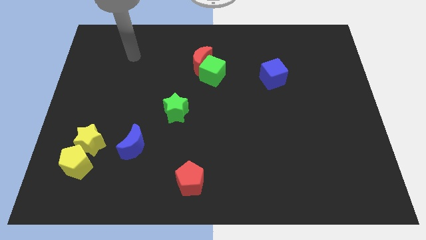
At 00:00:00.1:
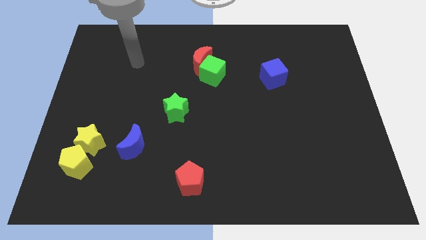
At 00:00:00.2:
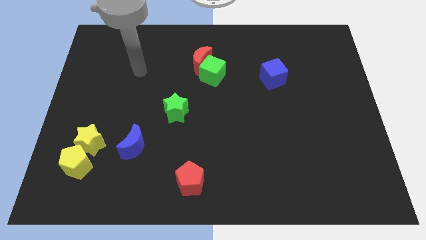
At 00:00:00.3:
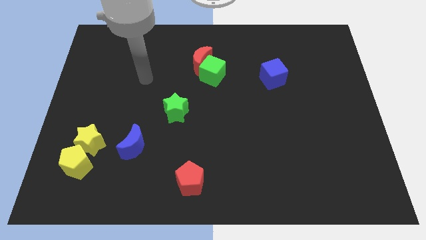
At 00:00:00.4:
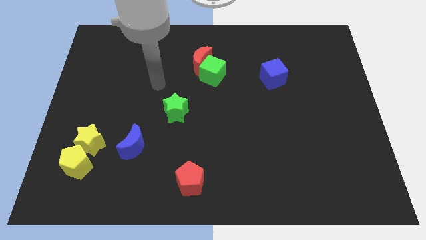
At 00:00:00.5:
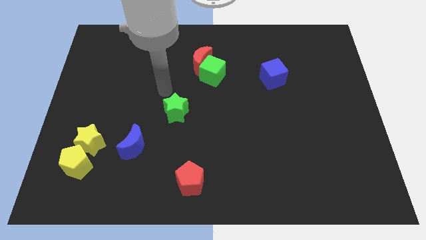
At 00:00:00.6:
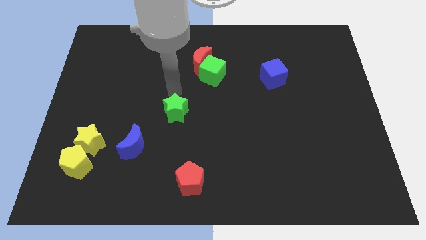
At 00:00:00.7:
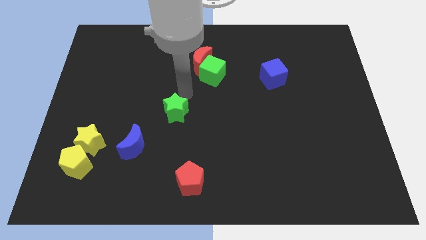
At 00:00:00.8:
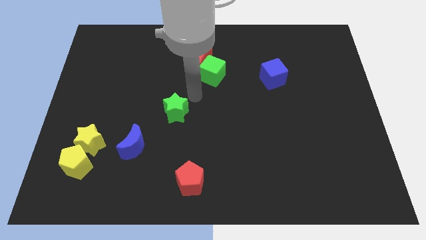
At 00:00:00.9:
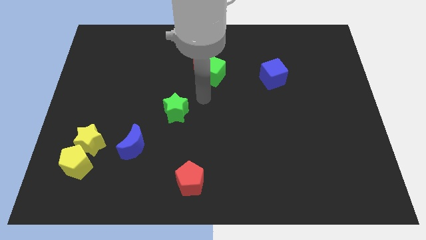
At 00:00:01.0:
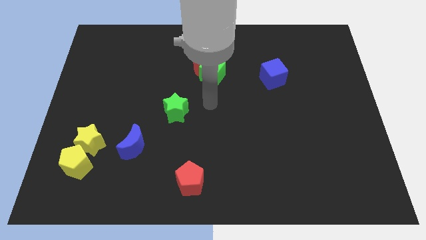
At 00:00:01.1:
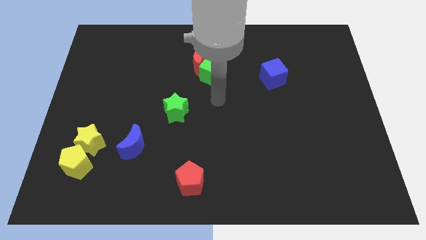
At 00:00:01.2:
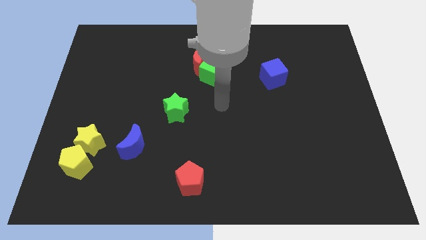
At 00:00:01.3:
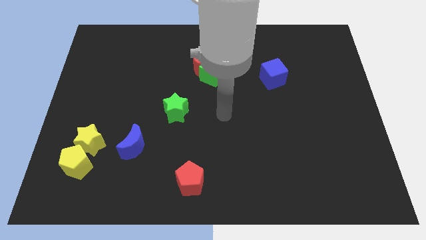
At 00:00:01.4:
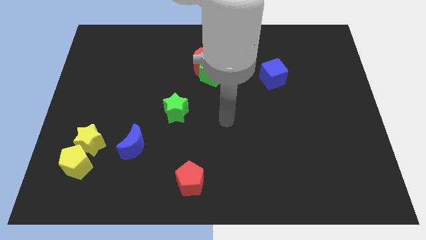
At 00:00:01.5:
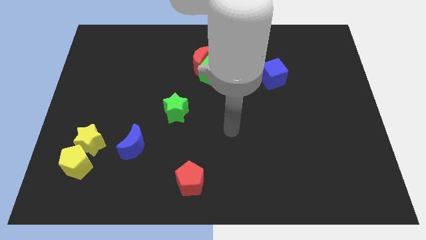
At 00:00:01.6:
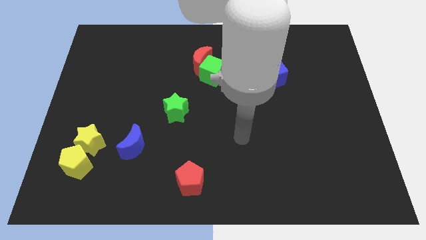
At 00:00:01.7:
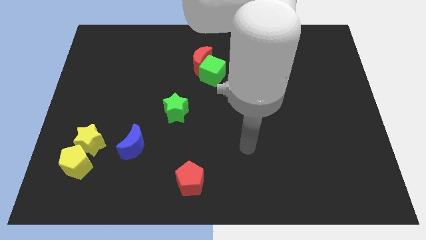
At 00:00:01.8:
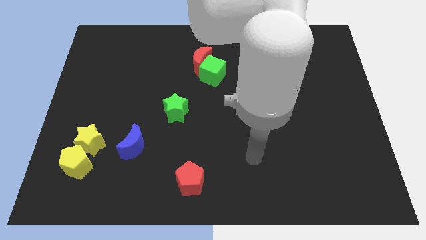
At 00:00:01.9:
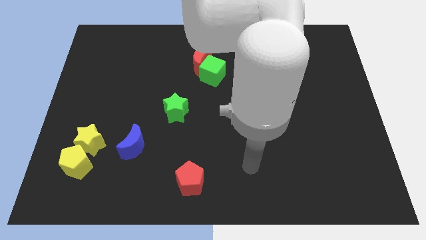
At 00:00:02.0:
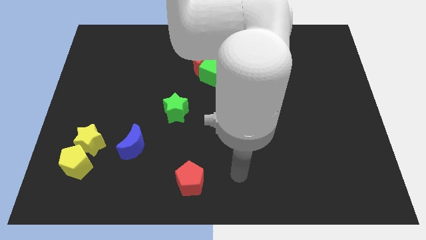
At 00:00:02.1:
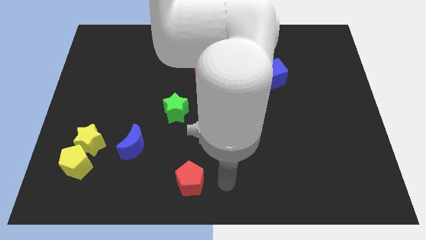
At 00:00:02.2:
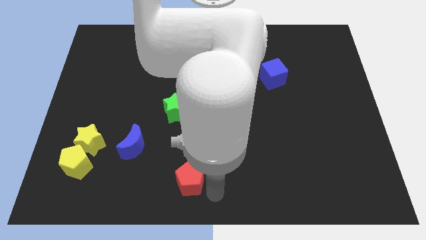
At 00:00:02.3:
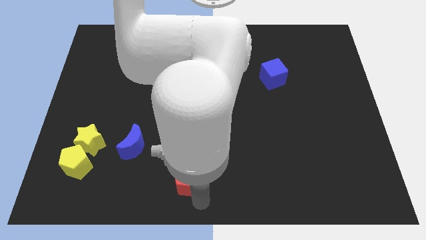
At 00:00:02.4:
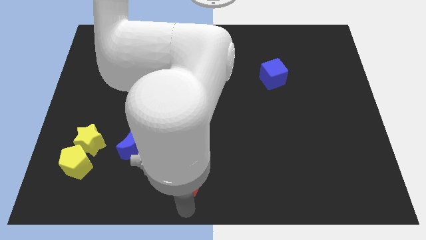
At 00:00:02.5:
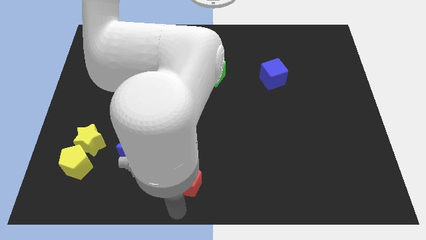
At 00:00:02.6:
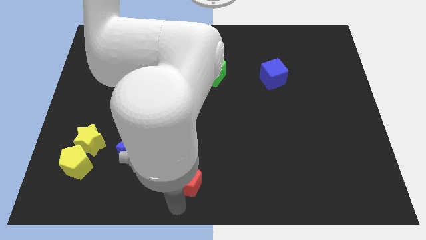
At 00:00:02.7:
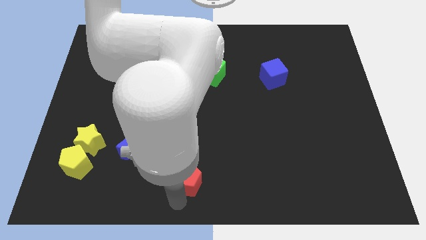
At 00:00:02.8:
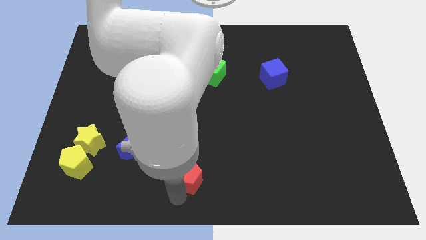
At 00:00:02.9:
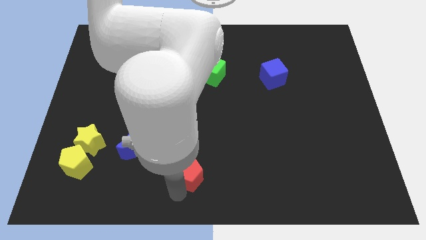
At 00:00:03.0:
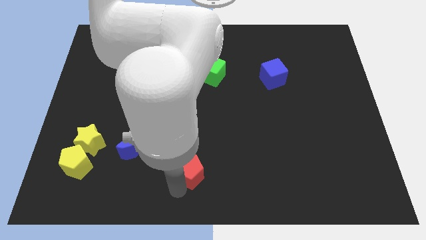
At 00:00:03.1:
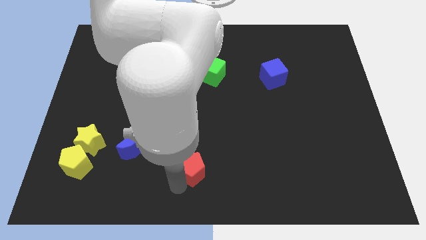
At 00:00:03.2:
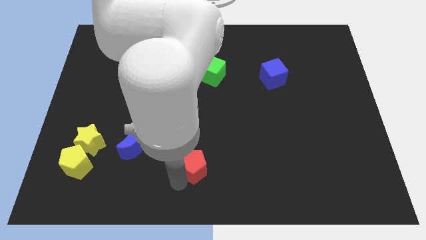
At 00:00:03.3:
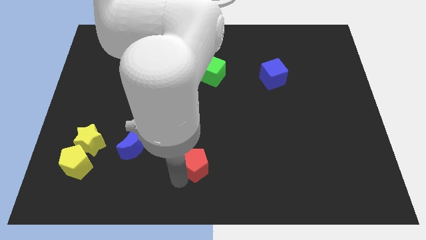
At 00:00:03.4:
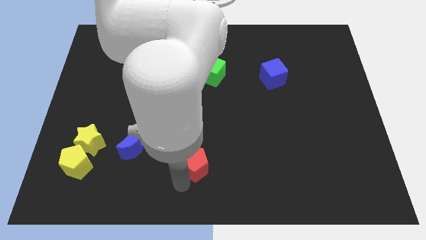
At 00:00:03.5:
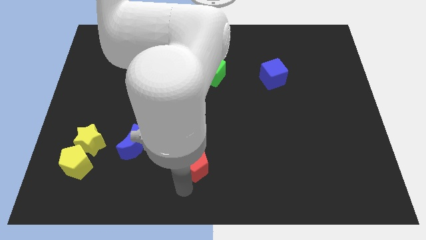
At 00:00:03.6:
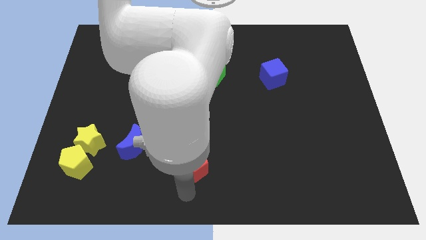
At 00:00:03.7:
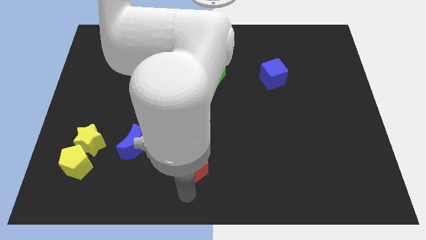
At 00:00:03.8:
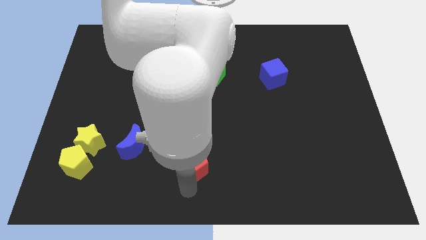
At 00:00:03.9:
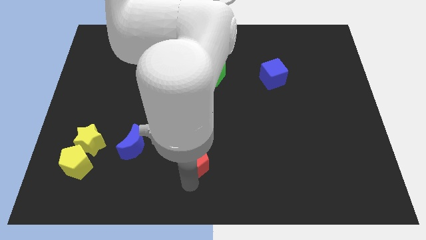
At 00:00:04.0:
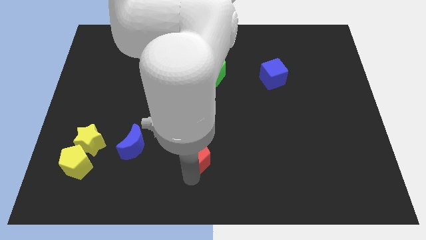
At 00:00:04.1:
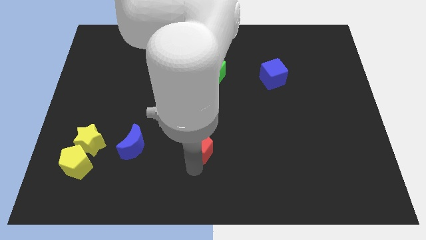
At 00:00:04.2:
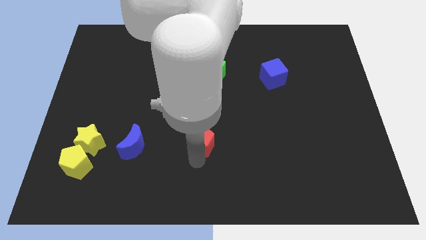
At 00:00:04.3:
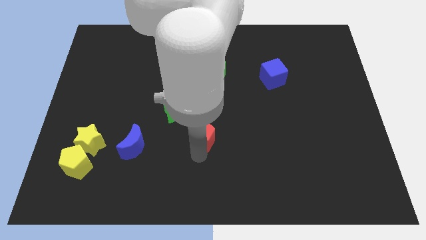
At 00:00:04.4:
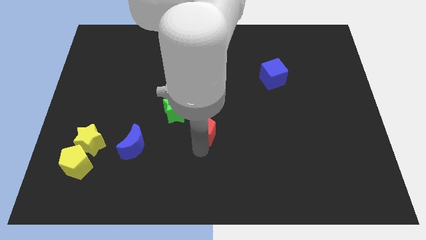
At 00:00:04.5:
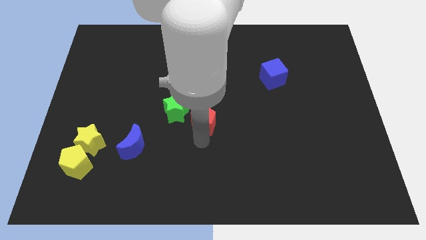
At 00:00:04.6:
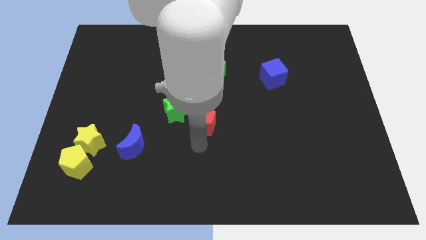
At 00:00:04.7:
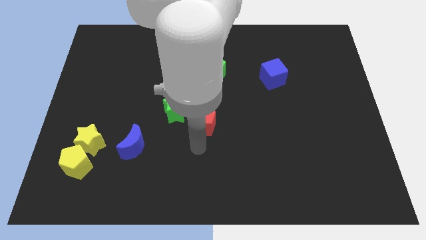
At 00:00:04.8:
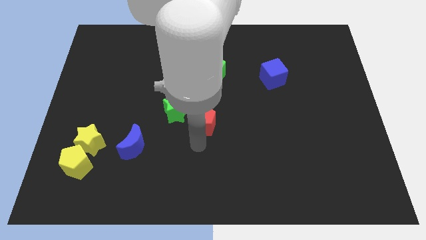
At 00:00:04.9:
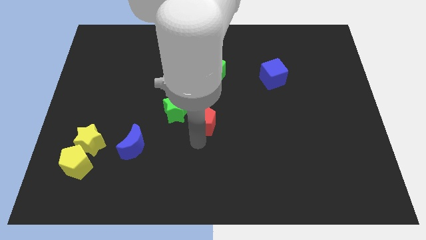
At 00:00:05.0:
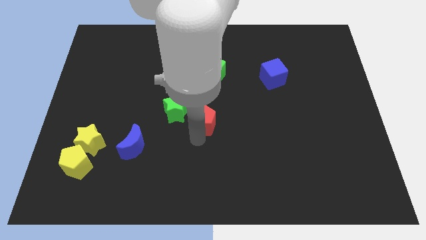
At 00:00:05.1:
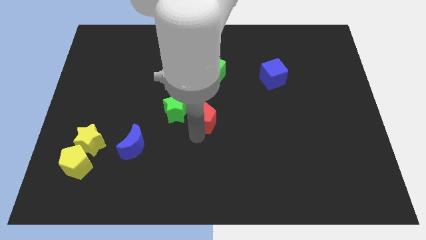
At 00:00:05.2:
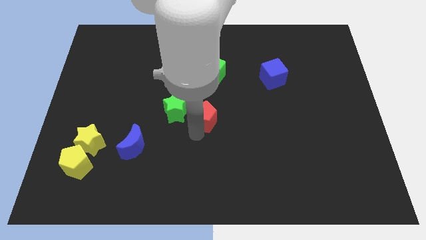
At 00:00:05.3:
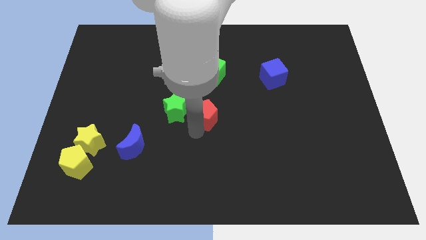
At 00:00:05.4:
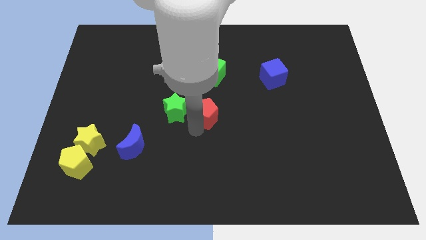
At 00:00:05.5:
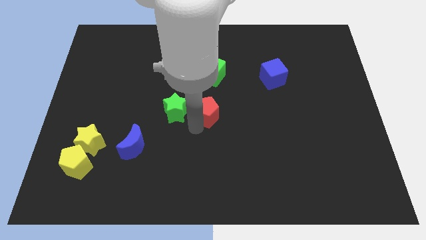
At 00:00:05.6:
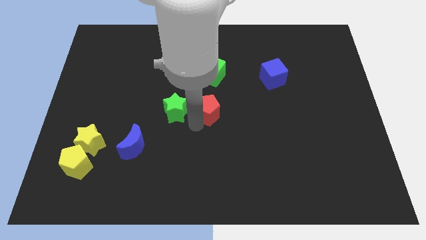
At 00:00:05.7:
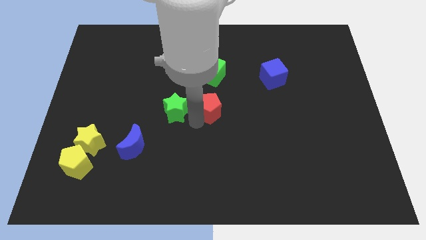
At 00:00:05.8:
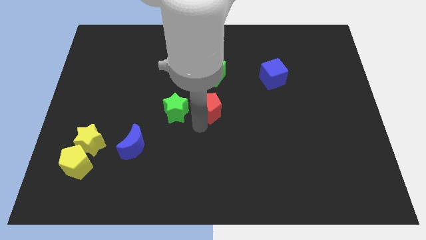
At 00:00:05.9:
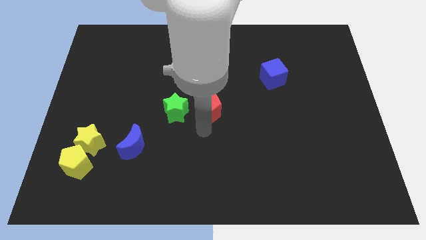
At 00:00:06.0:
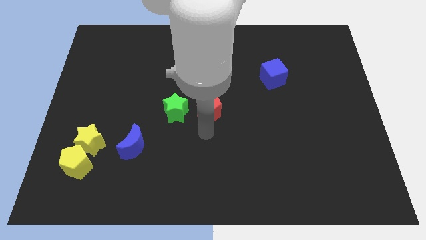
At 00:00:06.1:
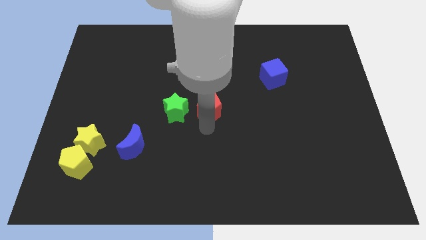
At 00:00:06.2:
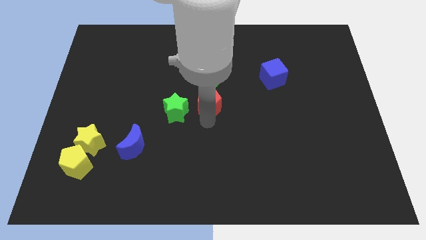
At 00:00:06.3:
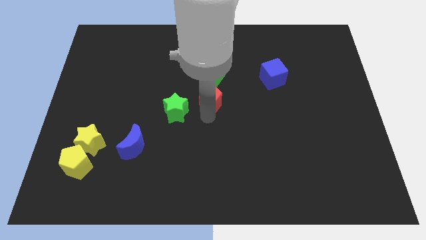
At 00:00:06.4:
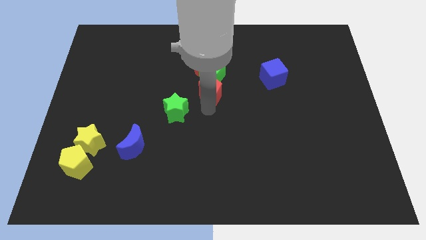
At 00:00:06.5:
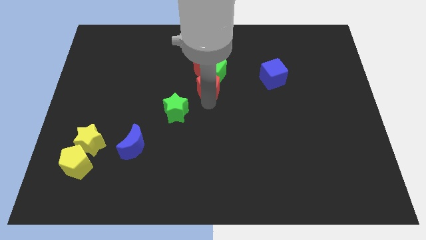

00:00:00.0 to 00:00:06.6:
move the red pentagon next to the green cube
